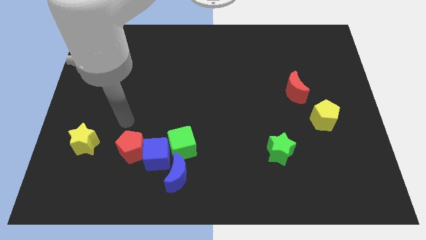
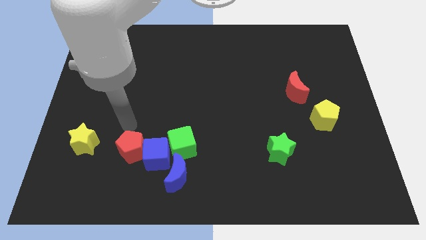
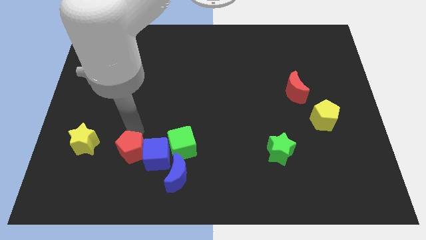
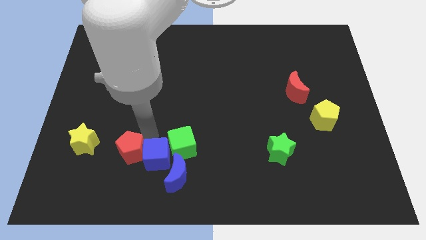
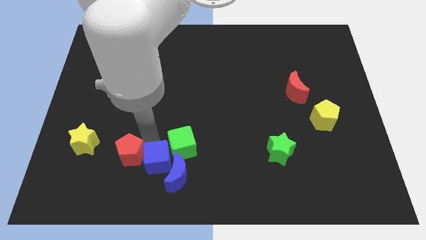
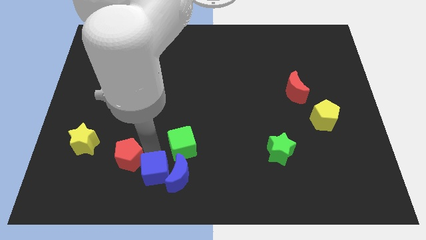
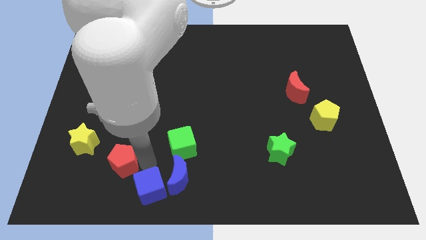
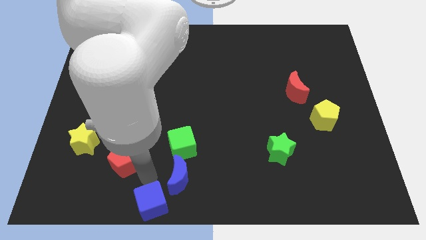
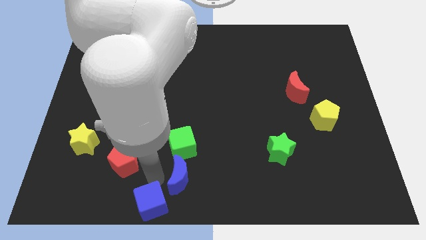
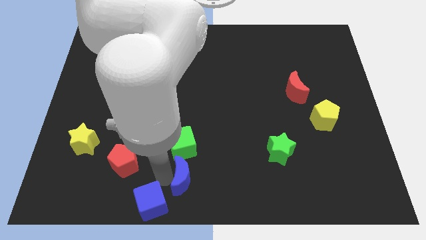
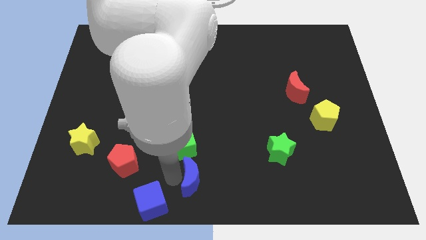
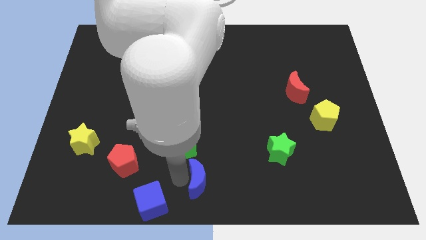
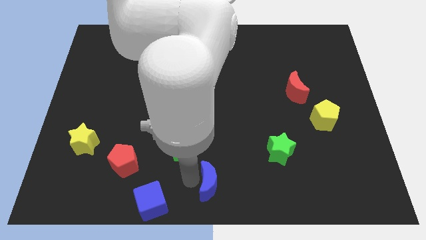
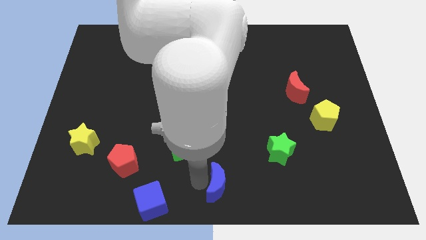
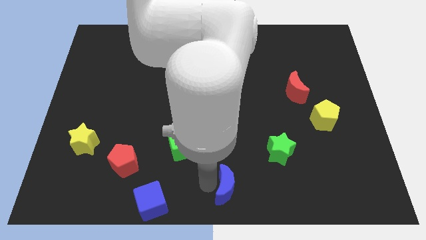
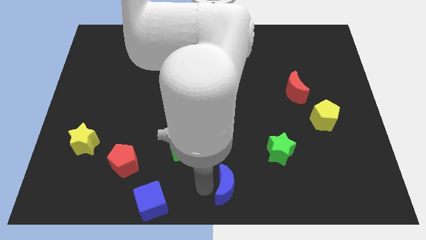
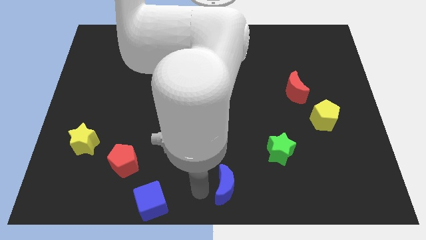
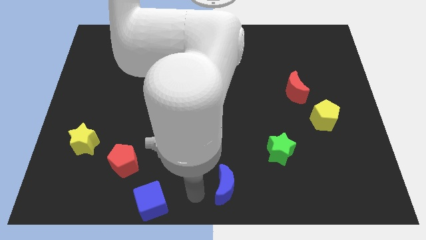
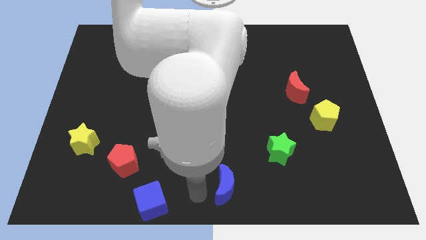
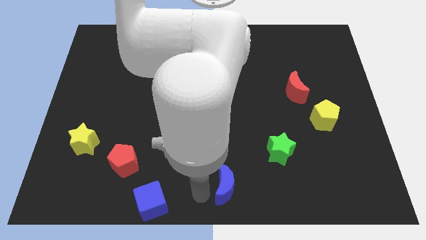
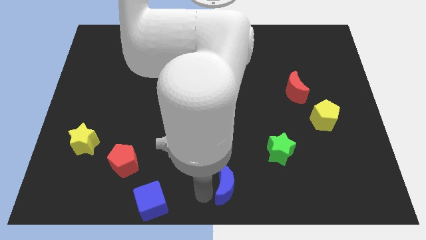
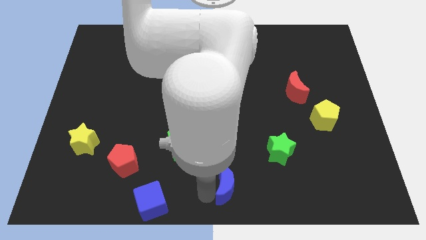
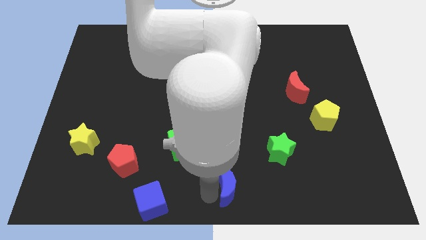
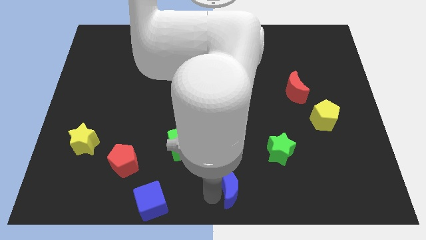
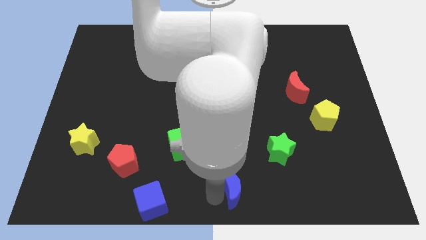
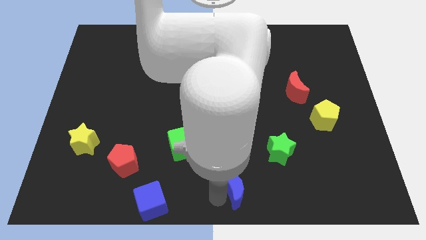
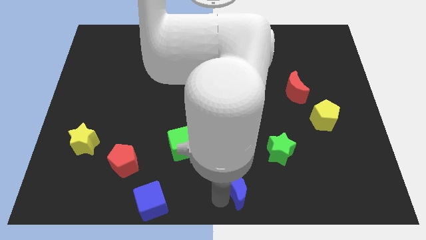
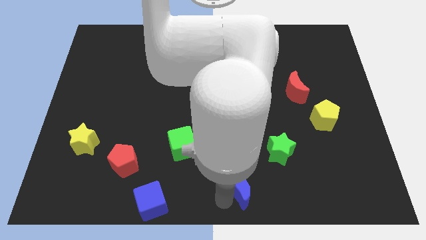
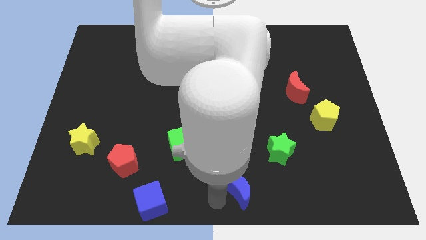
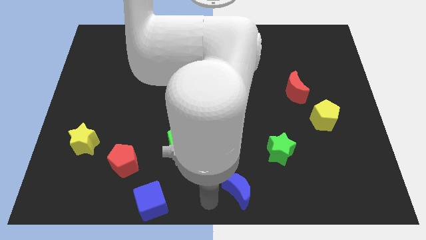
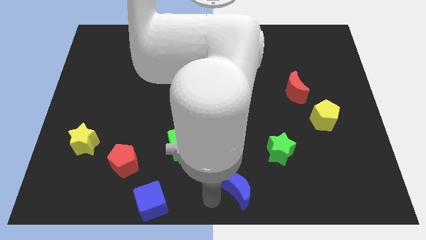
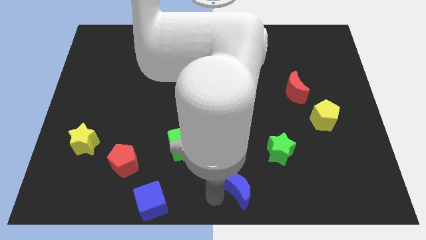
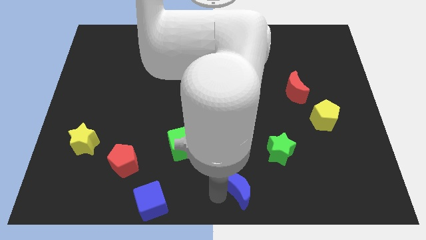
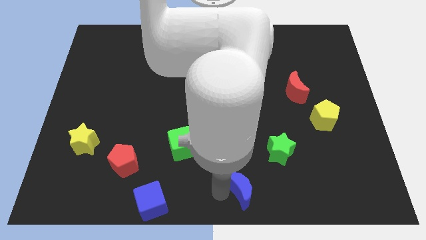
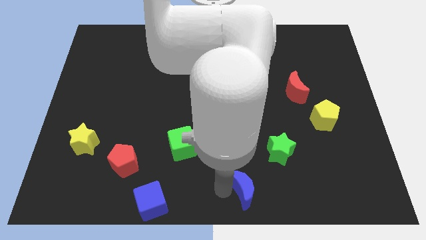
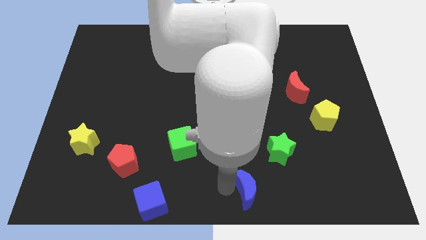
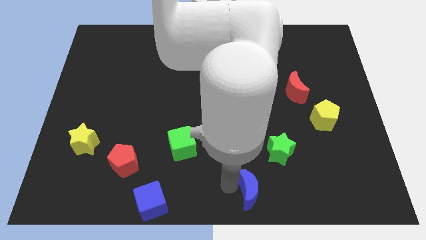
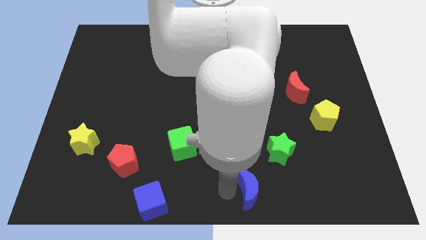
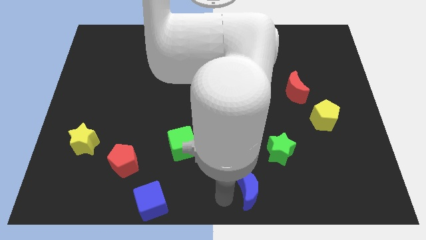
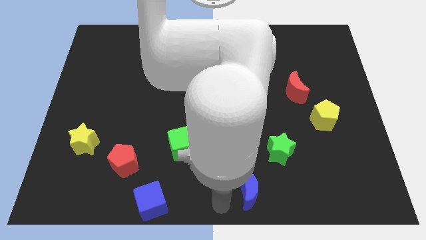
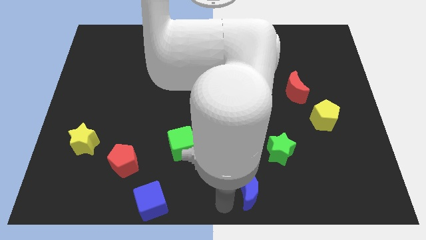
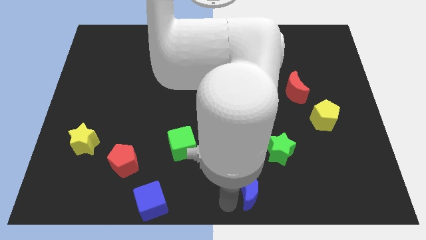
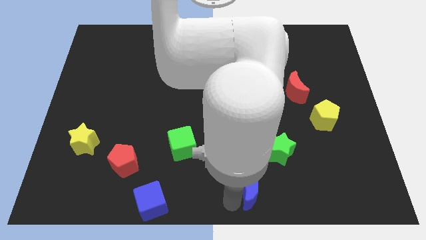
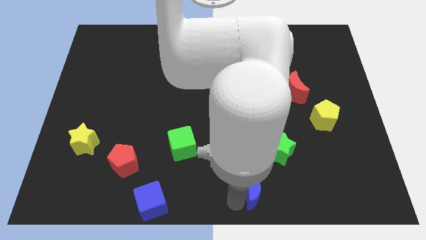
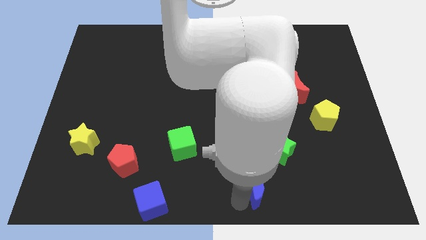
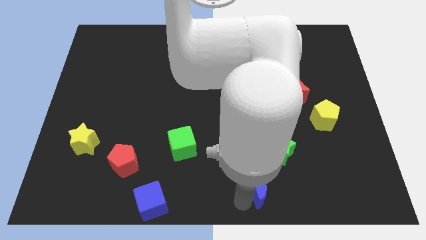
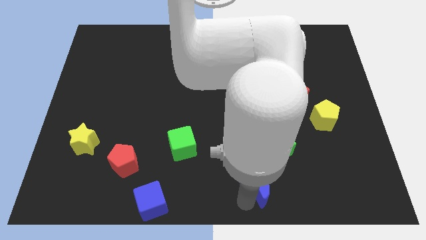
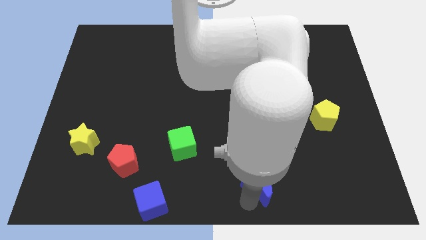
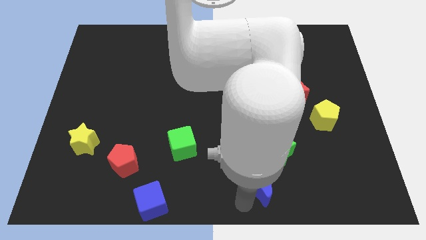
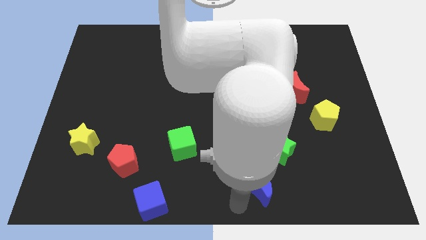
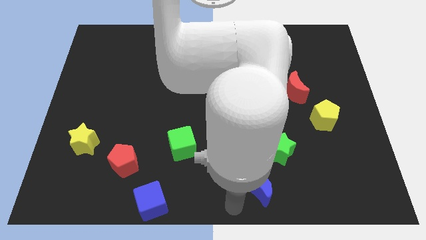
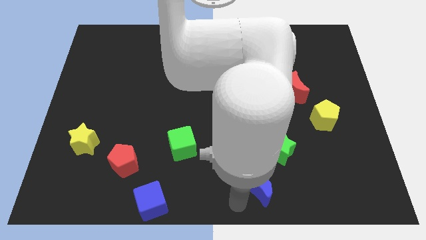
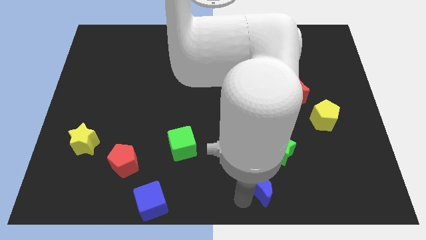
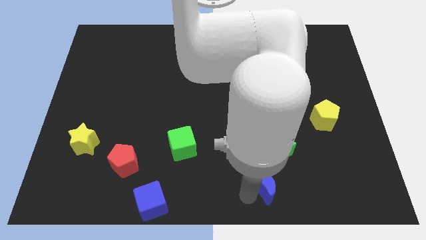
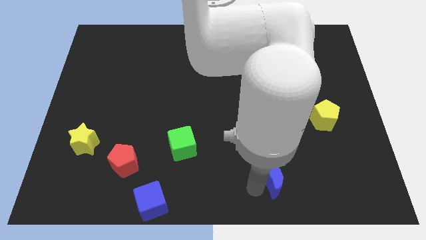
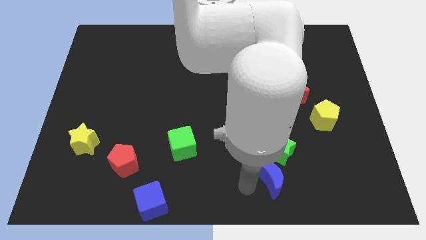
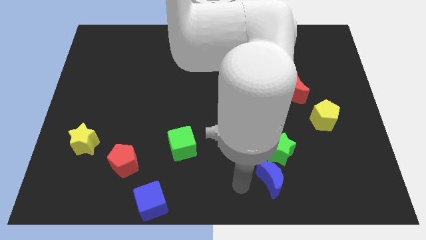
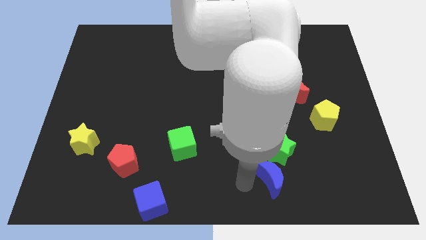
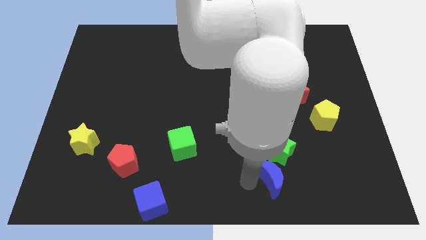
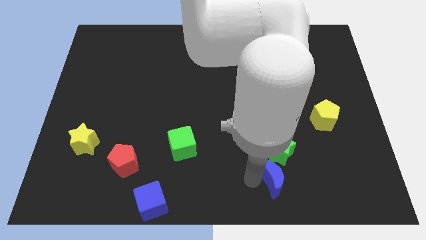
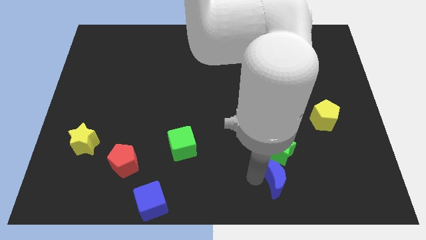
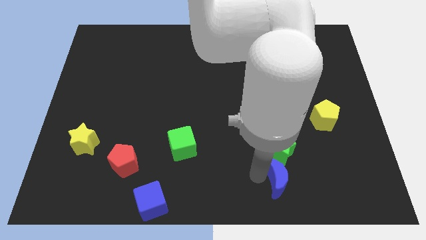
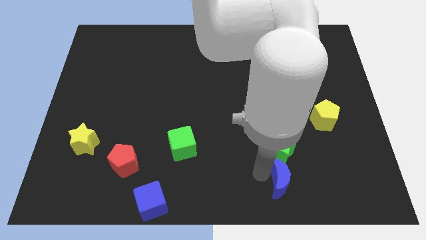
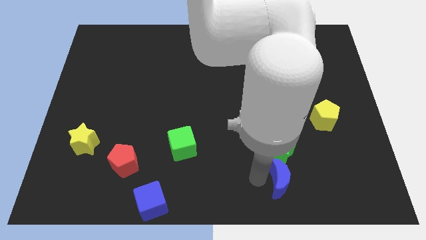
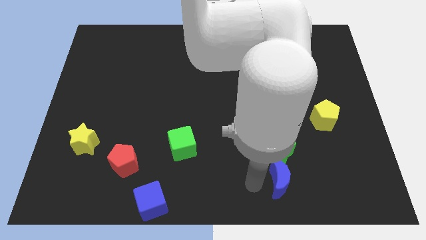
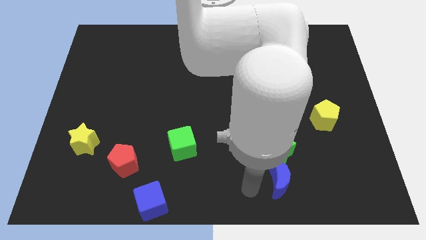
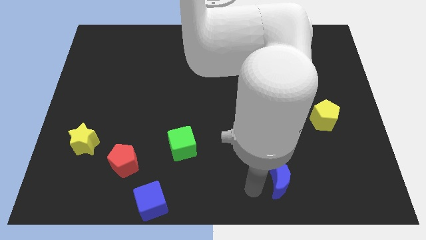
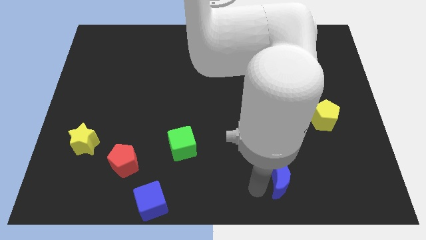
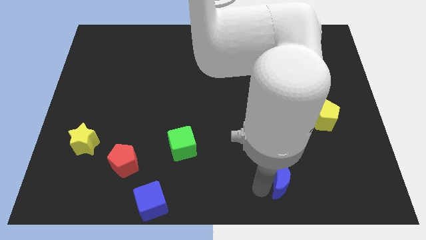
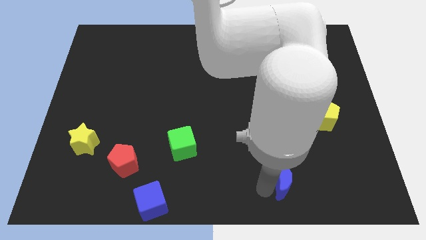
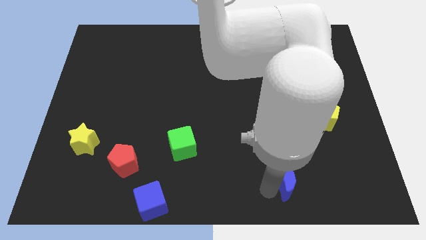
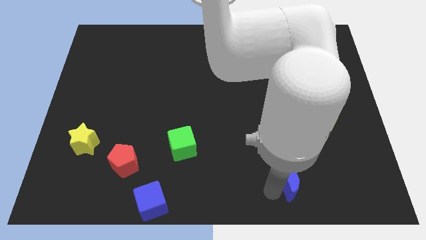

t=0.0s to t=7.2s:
slide the blue moon diagonally down and to the right of the green star

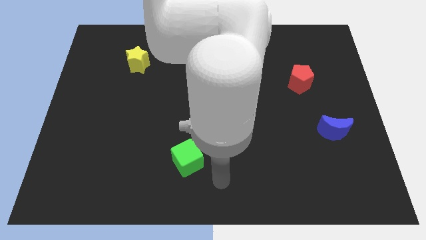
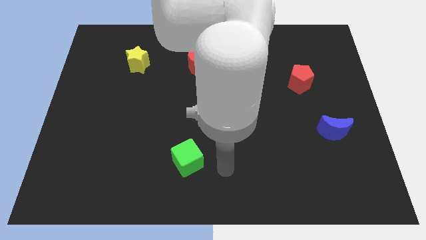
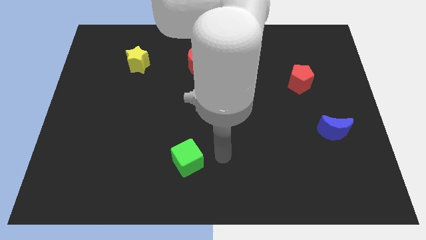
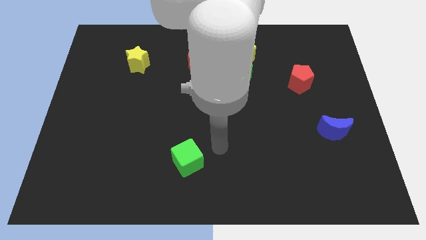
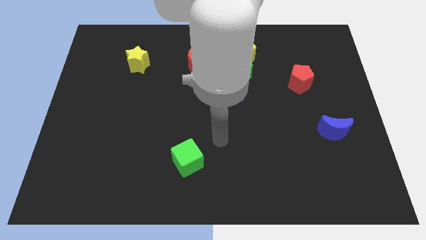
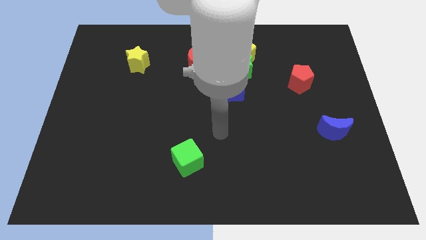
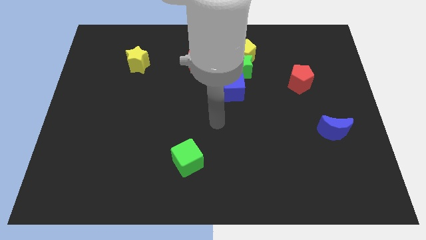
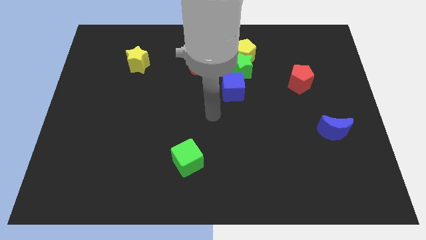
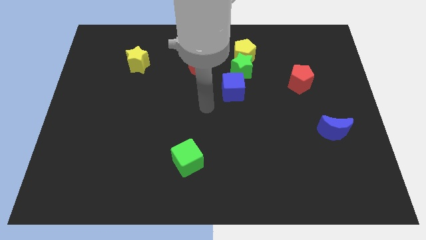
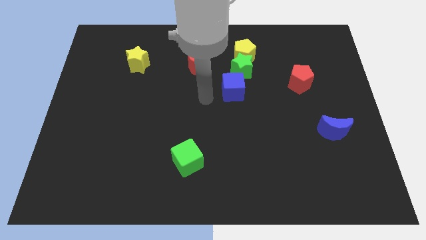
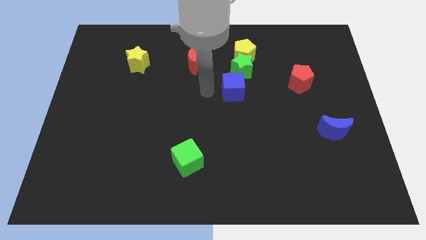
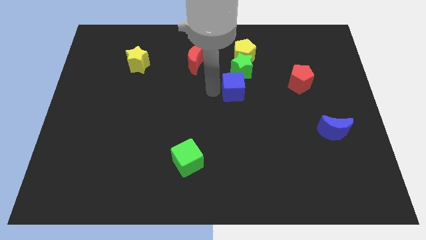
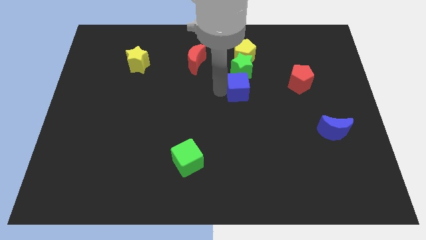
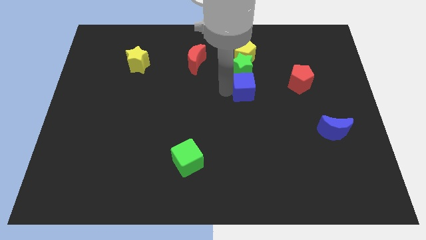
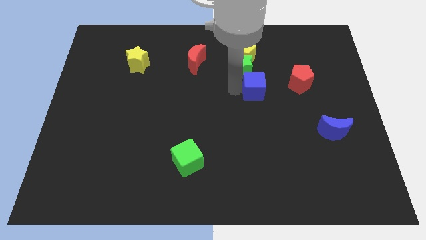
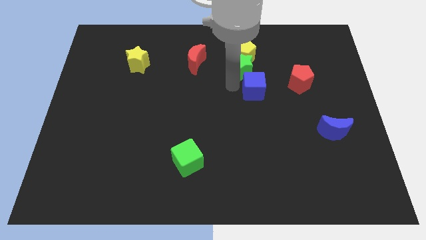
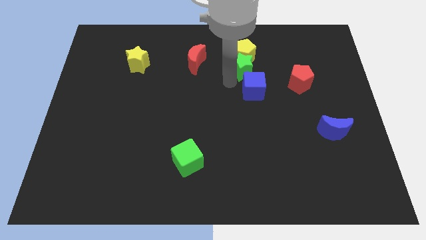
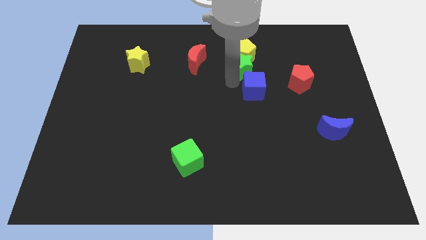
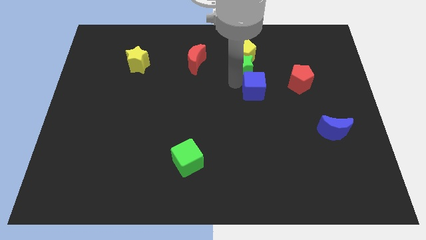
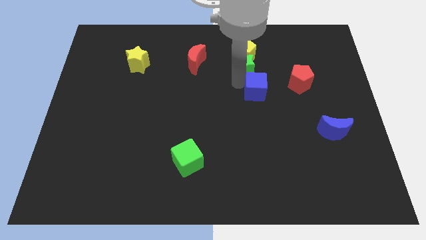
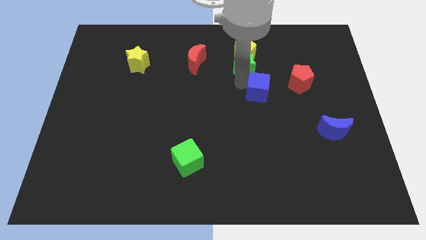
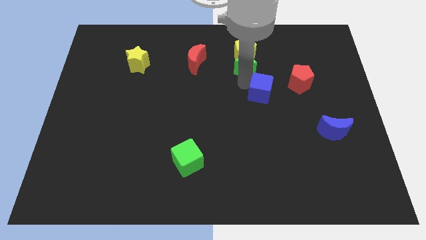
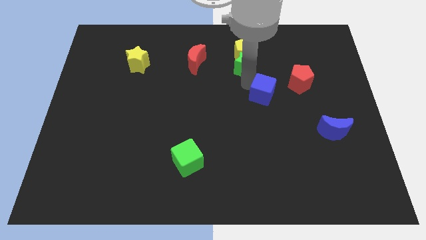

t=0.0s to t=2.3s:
put the blue cube to the bottom left of the red pentagon
